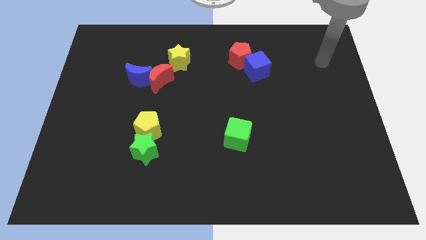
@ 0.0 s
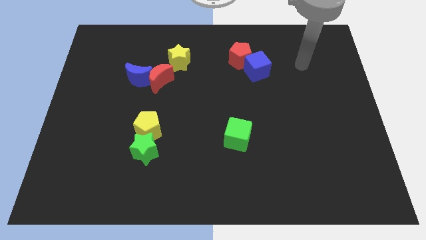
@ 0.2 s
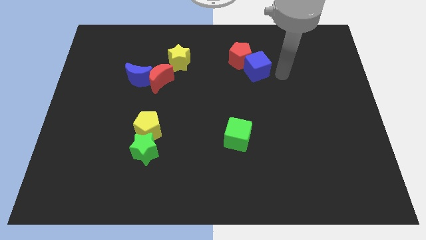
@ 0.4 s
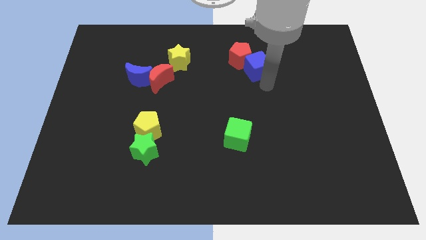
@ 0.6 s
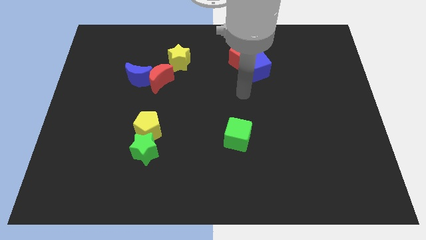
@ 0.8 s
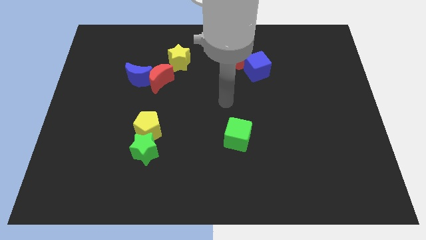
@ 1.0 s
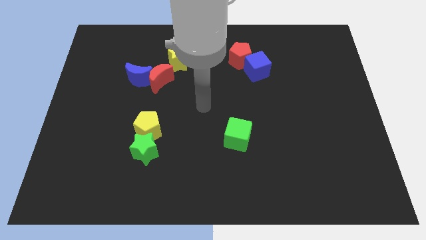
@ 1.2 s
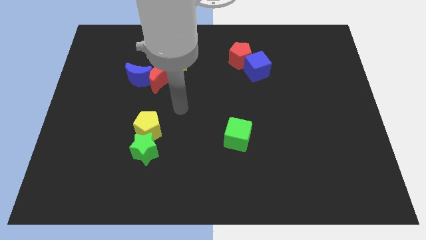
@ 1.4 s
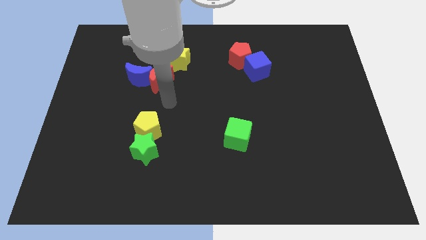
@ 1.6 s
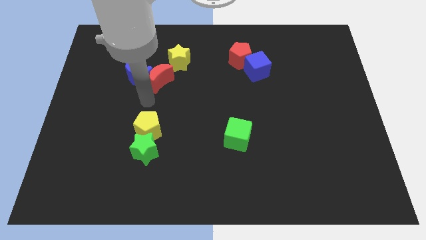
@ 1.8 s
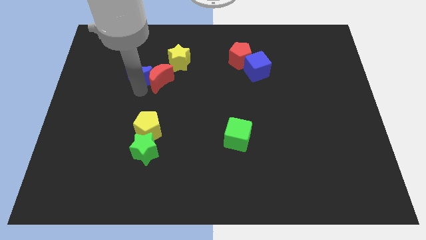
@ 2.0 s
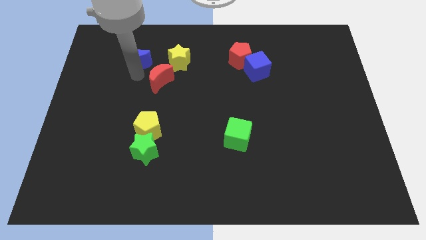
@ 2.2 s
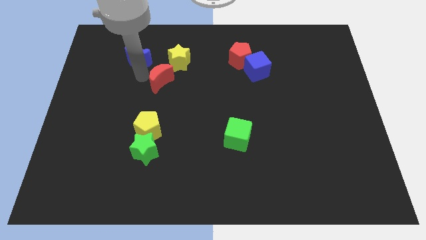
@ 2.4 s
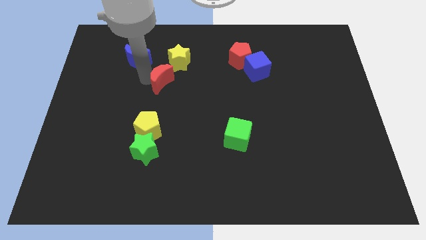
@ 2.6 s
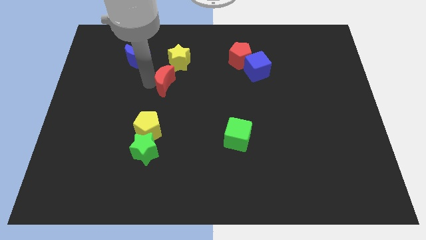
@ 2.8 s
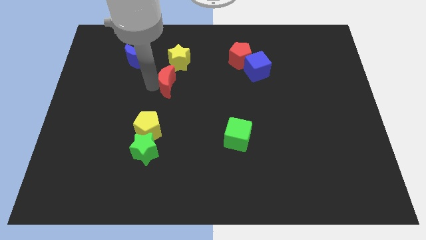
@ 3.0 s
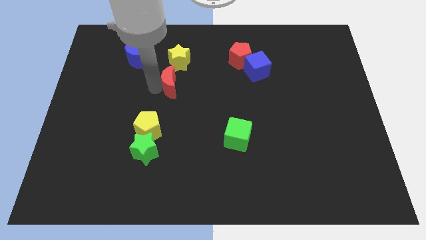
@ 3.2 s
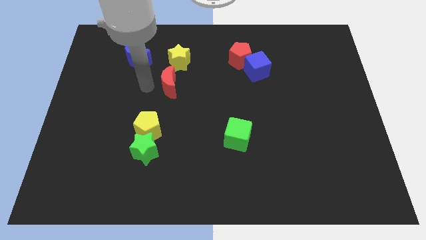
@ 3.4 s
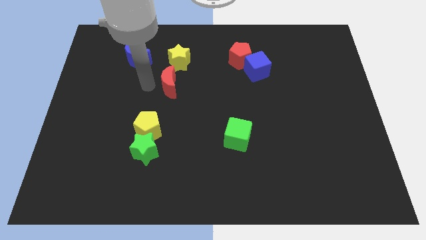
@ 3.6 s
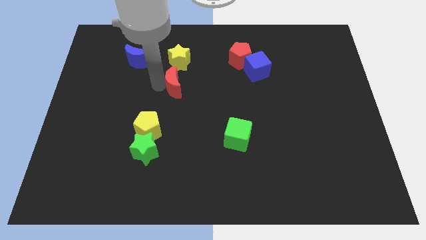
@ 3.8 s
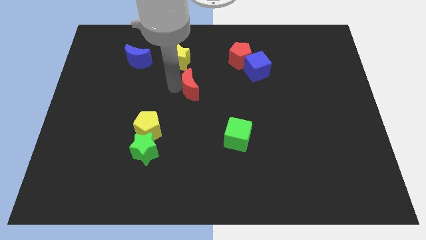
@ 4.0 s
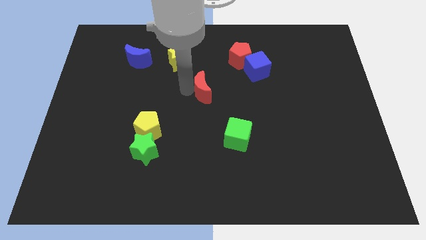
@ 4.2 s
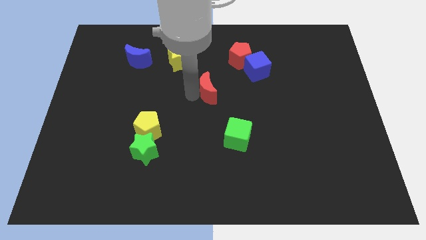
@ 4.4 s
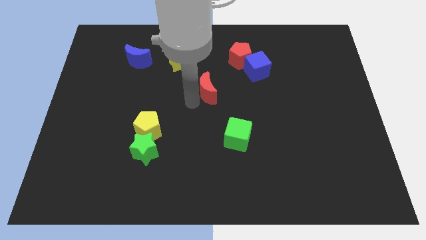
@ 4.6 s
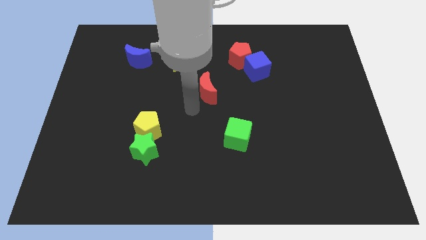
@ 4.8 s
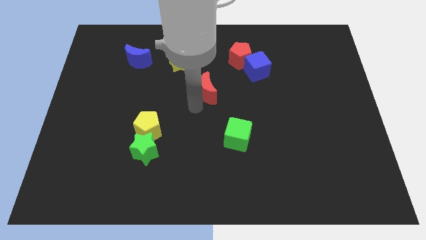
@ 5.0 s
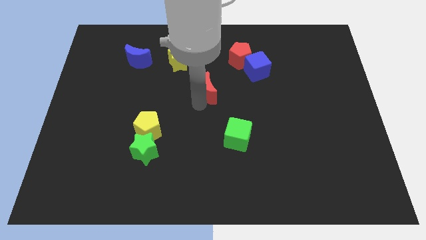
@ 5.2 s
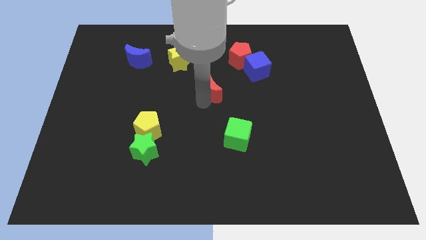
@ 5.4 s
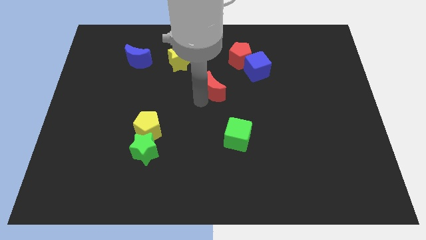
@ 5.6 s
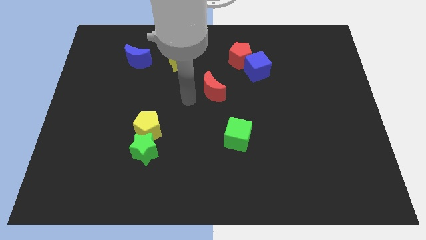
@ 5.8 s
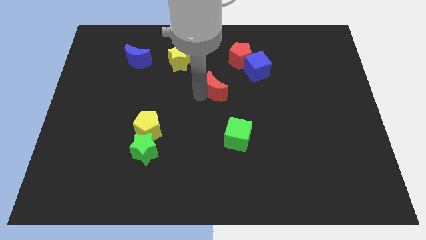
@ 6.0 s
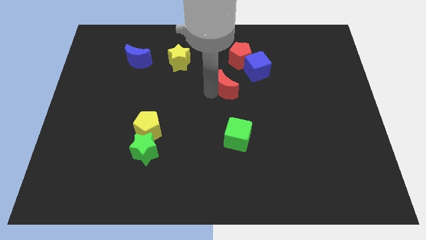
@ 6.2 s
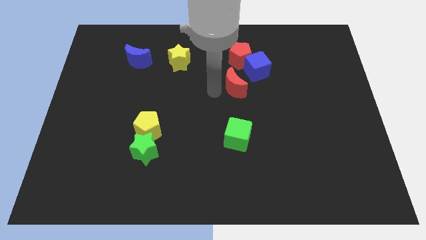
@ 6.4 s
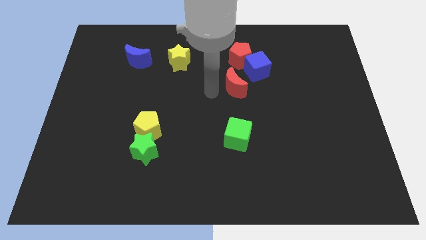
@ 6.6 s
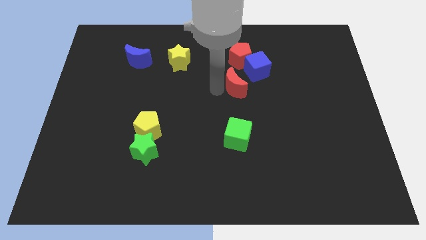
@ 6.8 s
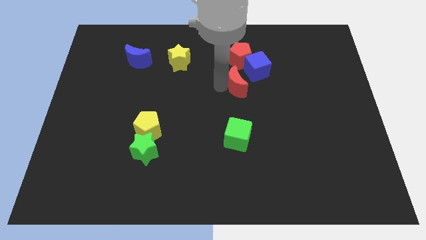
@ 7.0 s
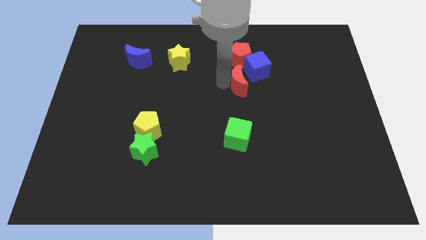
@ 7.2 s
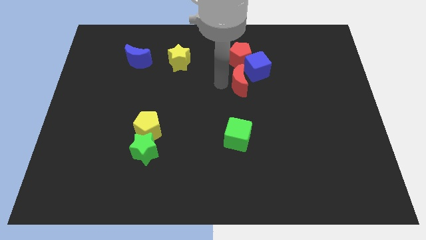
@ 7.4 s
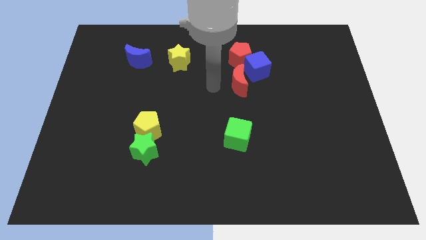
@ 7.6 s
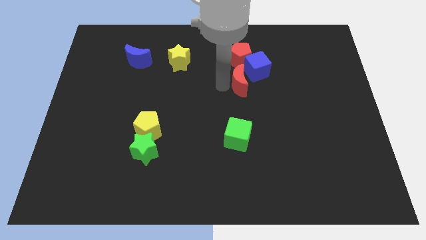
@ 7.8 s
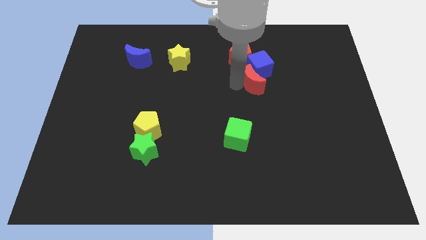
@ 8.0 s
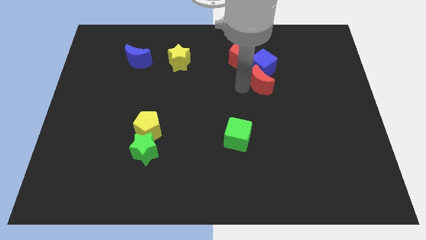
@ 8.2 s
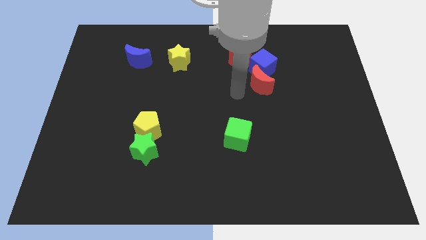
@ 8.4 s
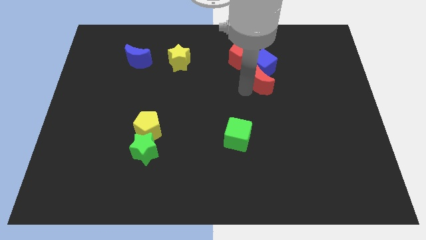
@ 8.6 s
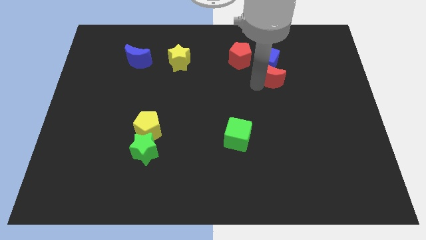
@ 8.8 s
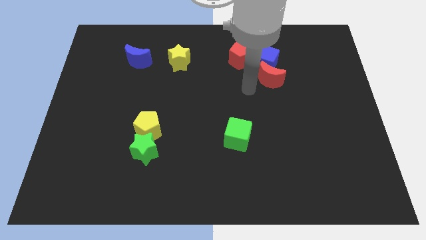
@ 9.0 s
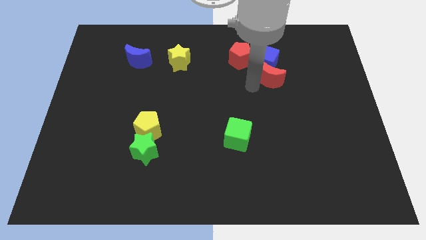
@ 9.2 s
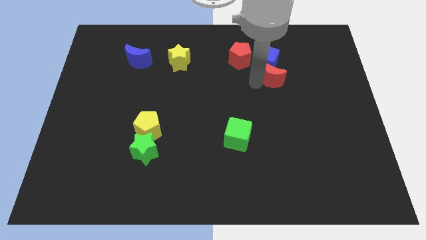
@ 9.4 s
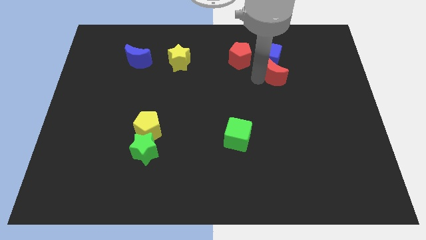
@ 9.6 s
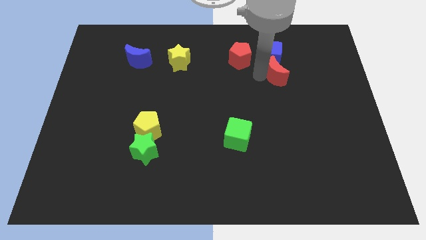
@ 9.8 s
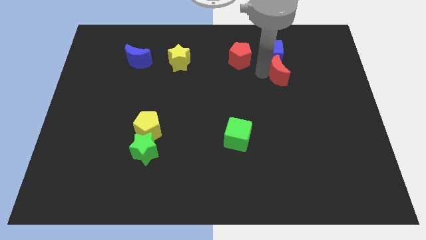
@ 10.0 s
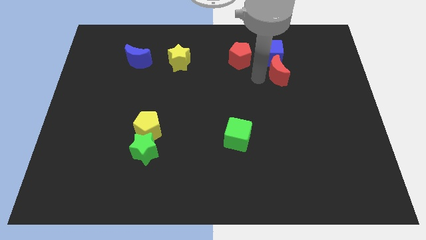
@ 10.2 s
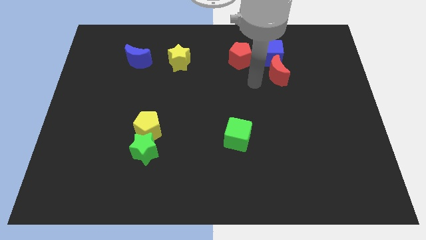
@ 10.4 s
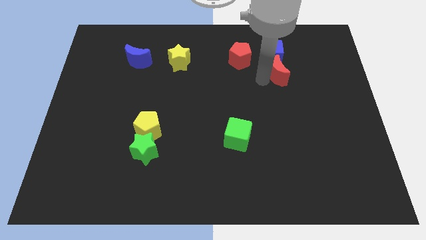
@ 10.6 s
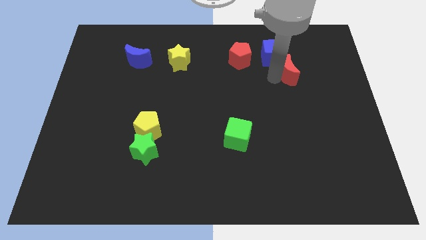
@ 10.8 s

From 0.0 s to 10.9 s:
slide the red moon to the right of the red pentagon

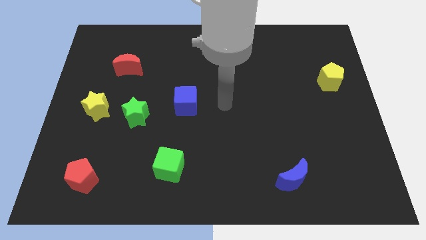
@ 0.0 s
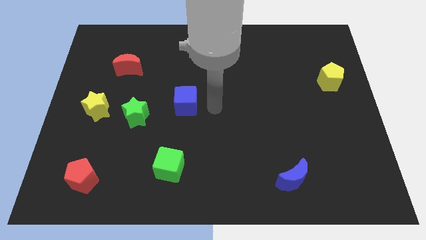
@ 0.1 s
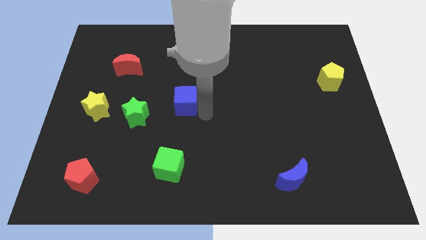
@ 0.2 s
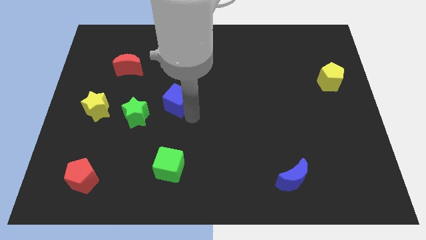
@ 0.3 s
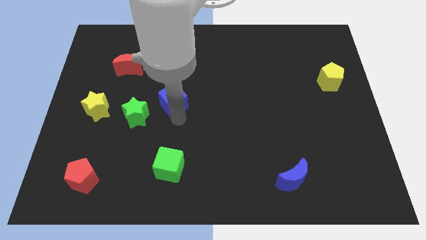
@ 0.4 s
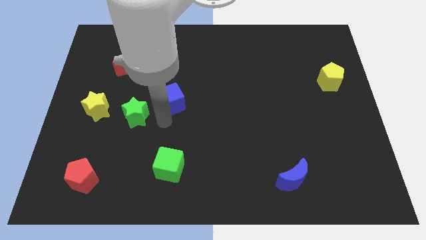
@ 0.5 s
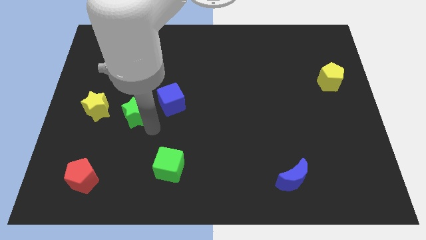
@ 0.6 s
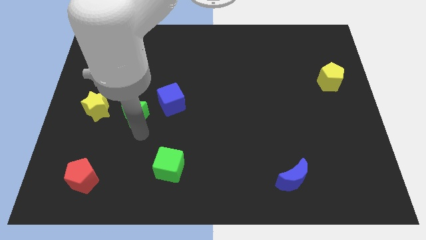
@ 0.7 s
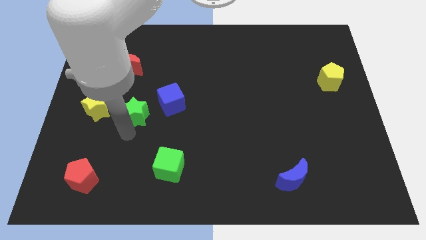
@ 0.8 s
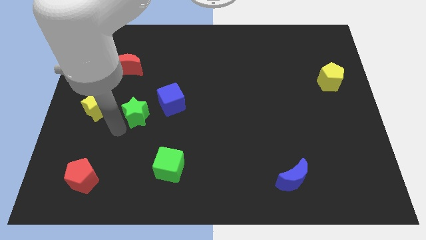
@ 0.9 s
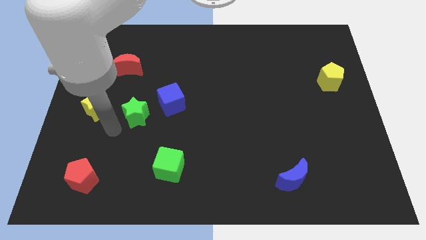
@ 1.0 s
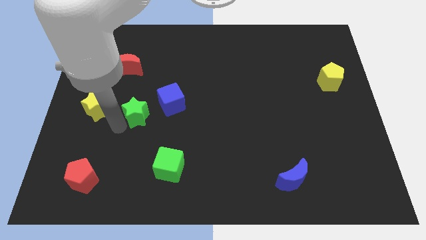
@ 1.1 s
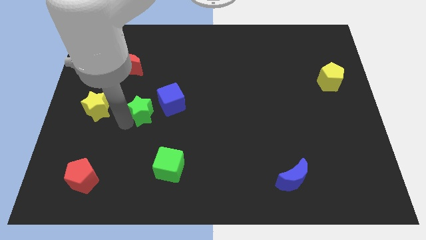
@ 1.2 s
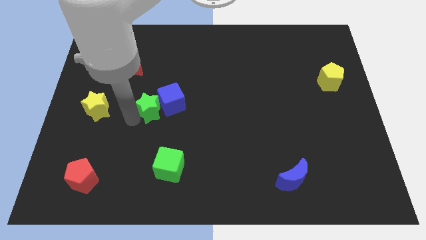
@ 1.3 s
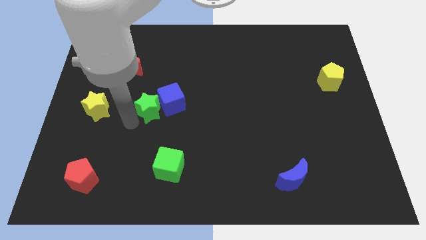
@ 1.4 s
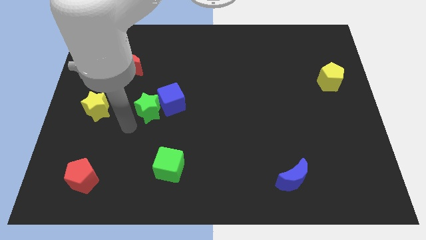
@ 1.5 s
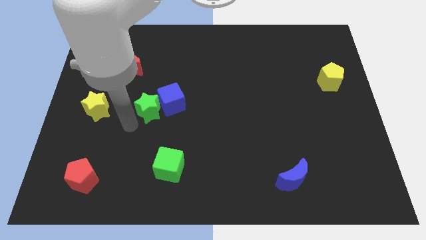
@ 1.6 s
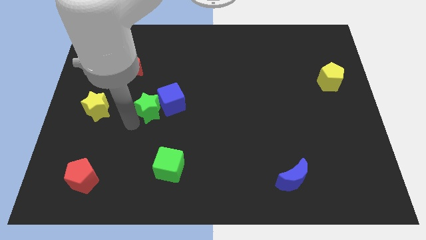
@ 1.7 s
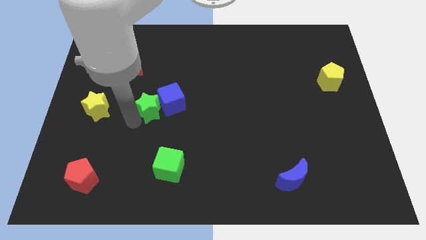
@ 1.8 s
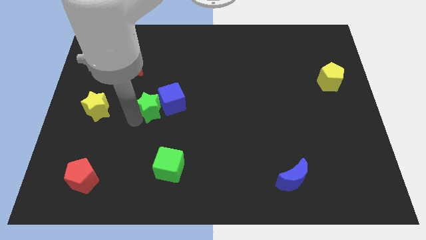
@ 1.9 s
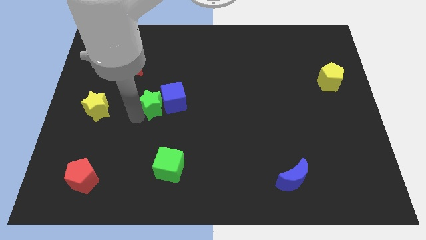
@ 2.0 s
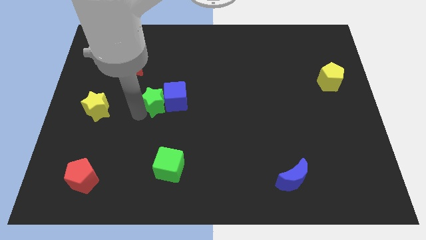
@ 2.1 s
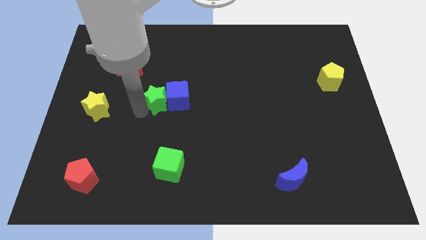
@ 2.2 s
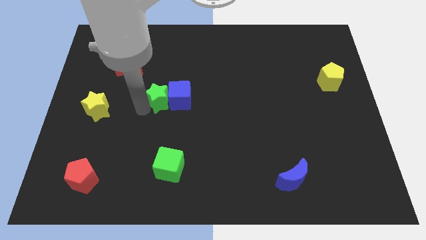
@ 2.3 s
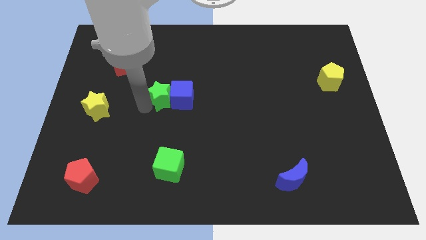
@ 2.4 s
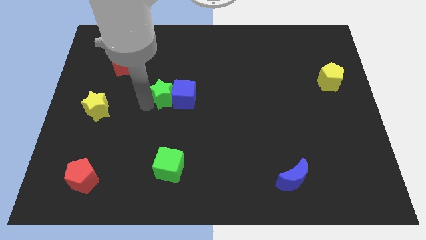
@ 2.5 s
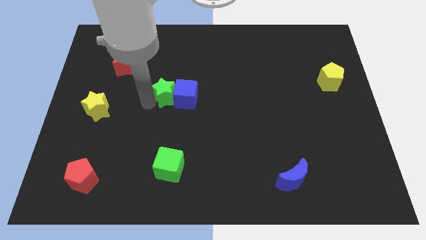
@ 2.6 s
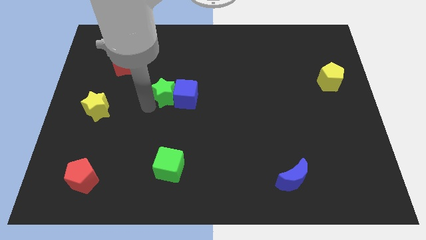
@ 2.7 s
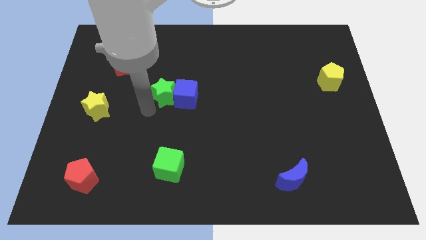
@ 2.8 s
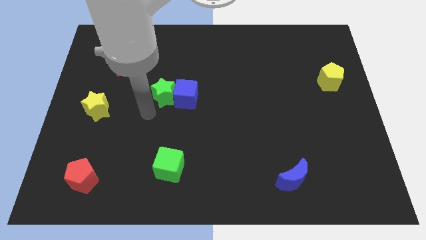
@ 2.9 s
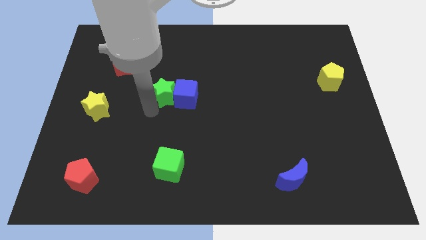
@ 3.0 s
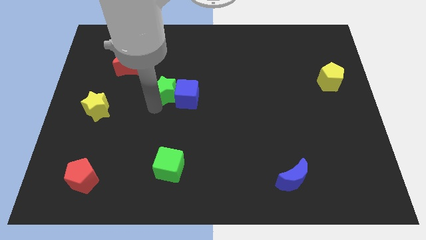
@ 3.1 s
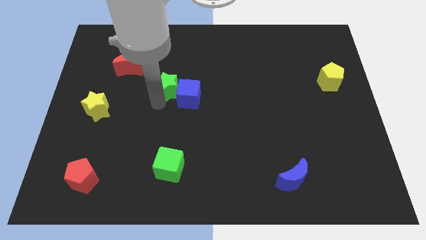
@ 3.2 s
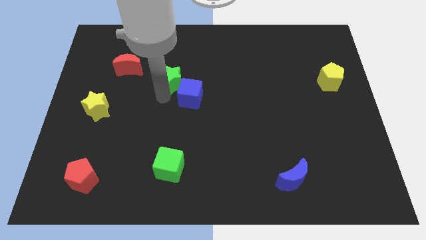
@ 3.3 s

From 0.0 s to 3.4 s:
move the green star to the top of the blue cube
